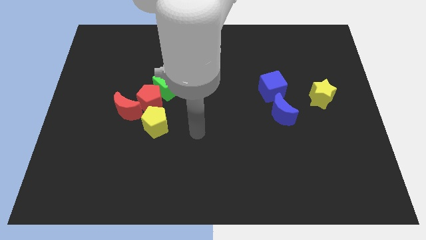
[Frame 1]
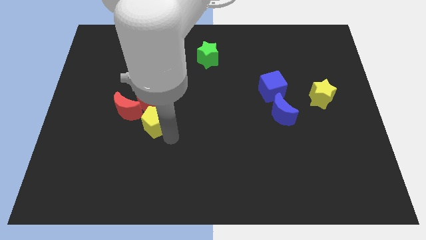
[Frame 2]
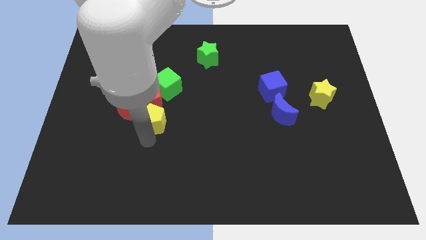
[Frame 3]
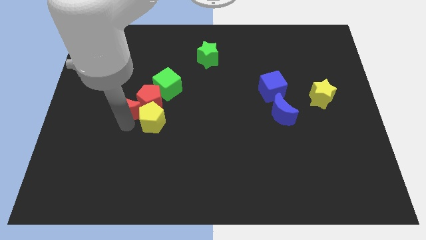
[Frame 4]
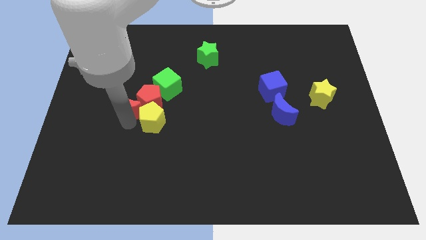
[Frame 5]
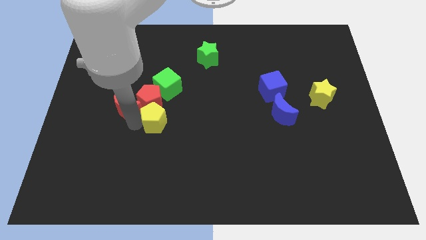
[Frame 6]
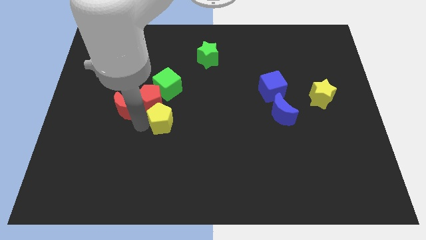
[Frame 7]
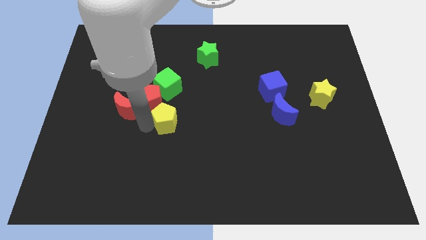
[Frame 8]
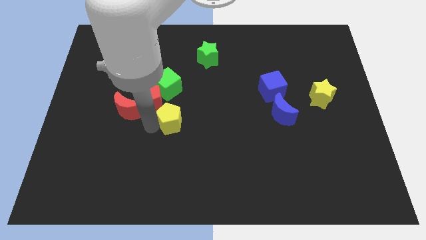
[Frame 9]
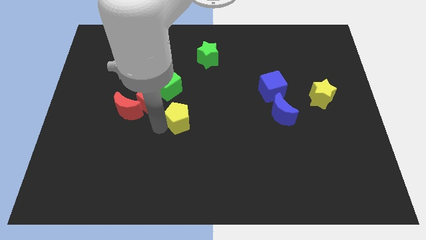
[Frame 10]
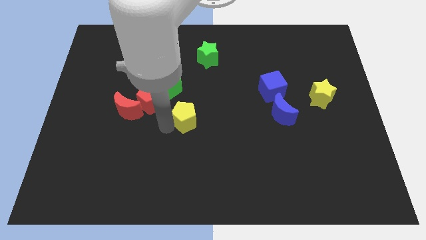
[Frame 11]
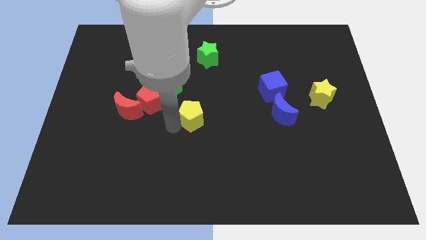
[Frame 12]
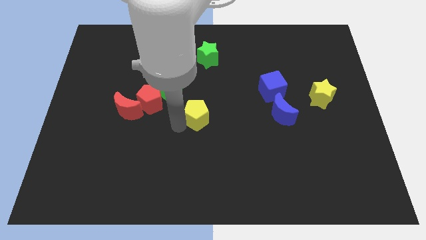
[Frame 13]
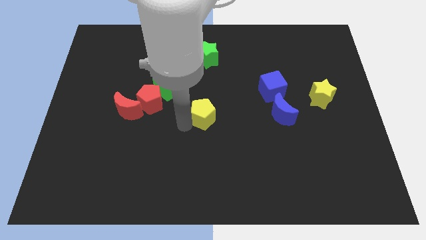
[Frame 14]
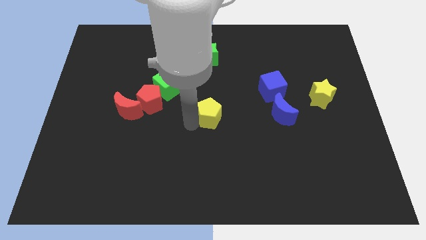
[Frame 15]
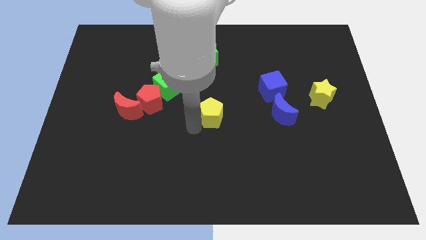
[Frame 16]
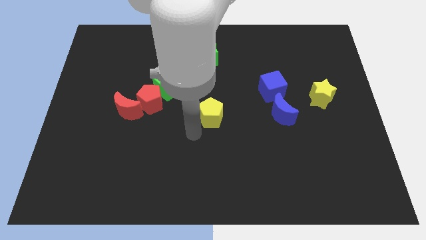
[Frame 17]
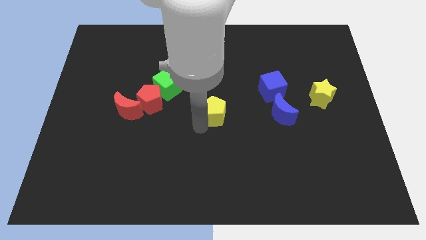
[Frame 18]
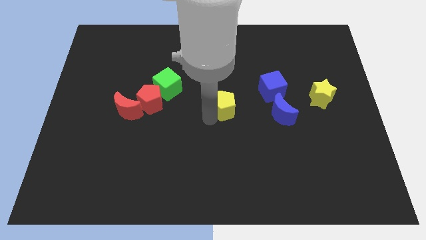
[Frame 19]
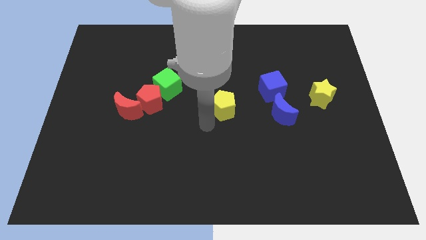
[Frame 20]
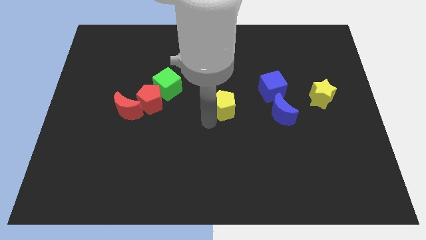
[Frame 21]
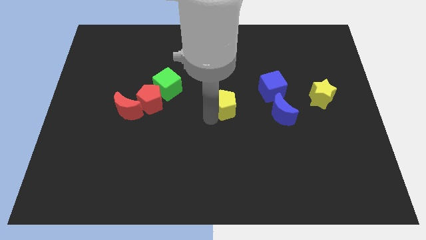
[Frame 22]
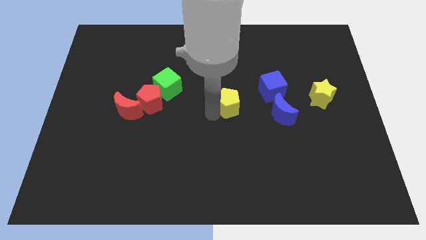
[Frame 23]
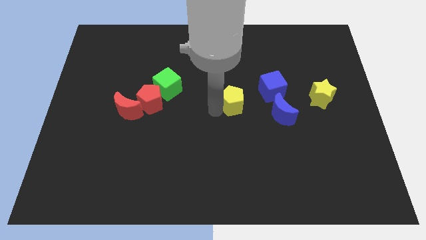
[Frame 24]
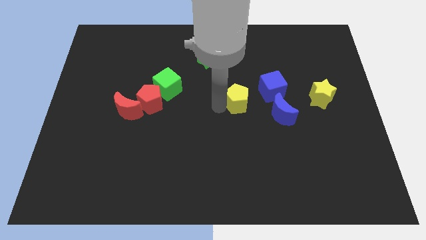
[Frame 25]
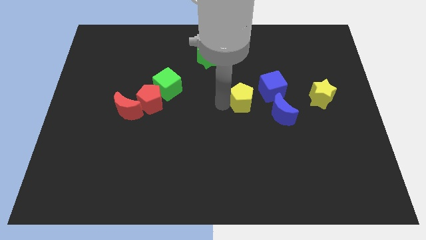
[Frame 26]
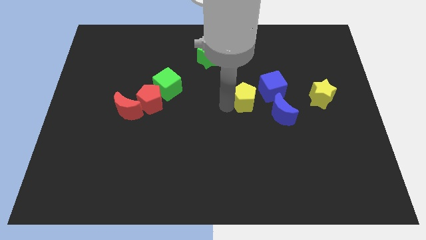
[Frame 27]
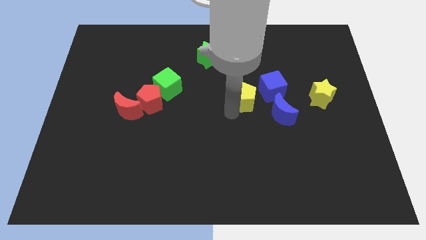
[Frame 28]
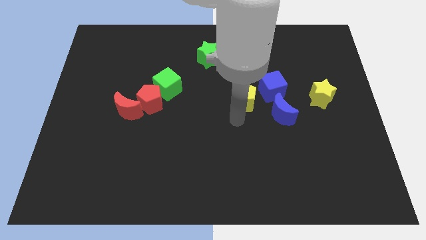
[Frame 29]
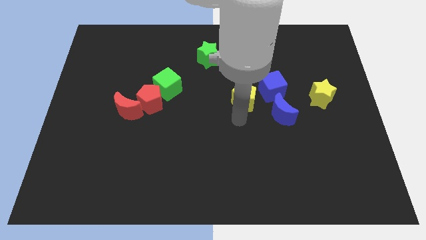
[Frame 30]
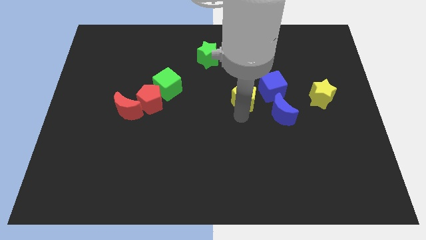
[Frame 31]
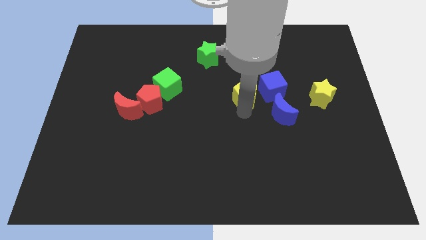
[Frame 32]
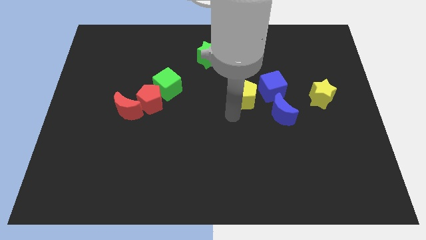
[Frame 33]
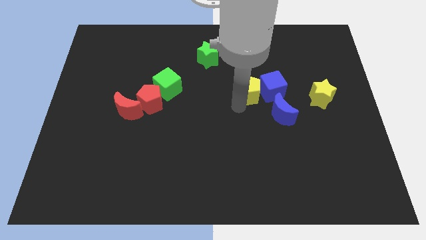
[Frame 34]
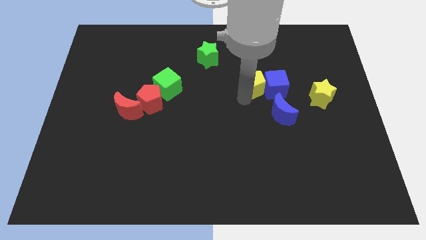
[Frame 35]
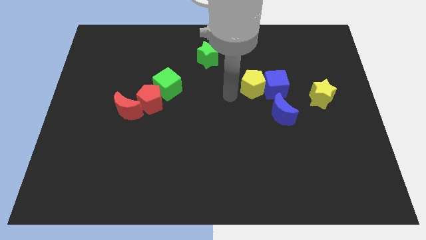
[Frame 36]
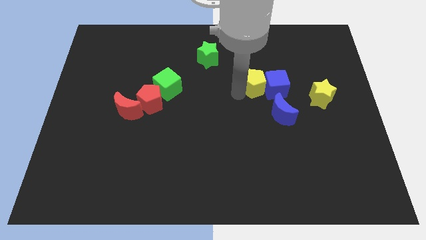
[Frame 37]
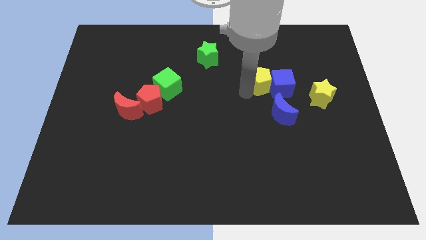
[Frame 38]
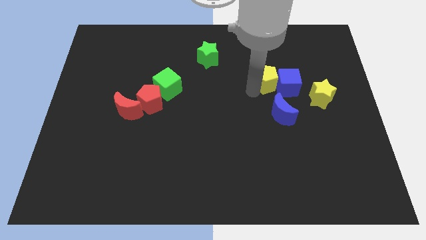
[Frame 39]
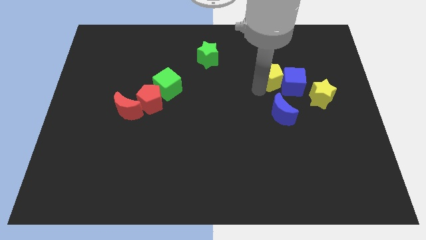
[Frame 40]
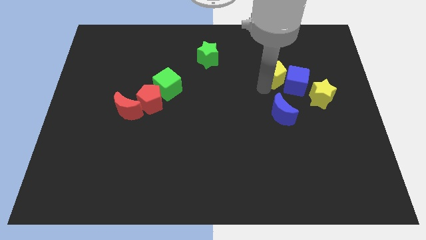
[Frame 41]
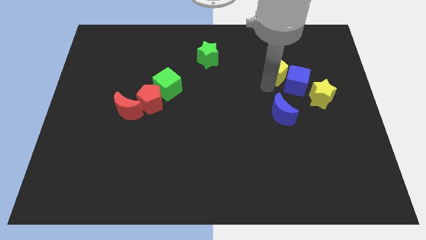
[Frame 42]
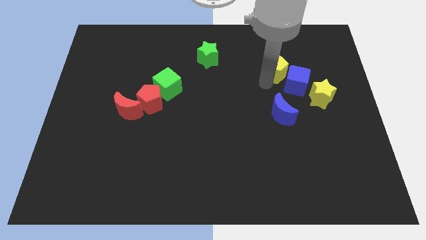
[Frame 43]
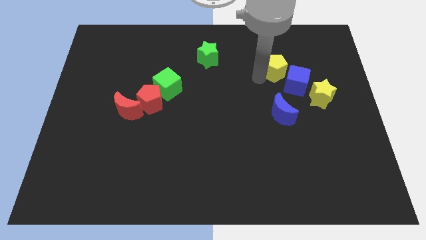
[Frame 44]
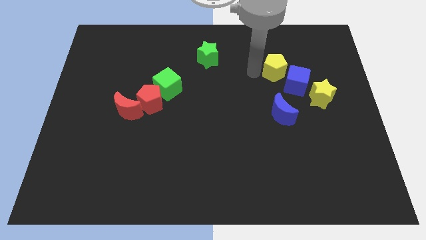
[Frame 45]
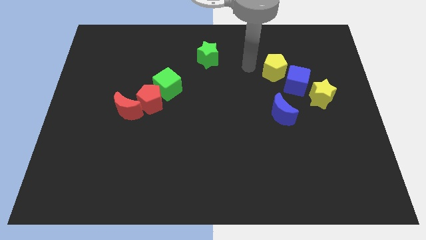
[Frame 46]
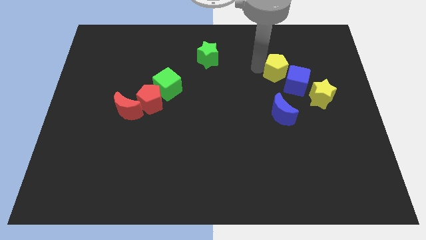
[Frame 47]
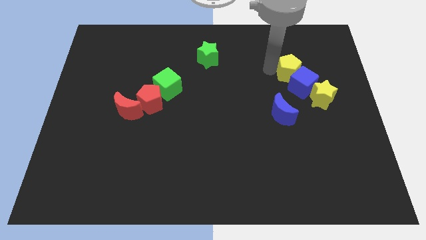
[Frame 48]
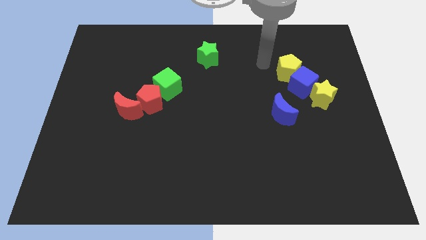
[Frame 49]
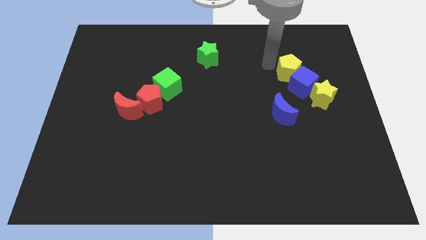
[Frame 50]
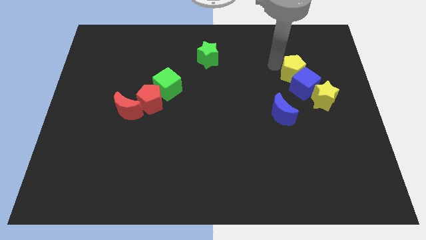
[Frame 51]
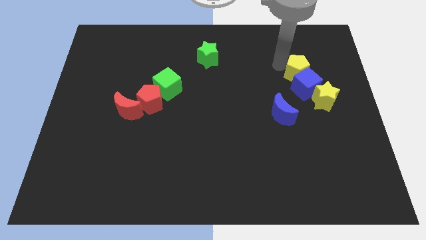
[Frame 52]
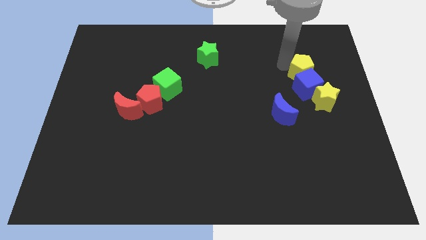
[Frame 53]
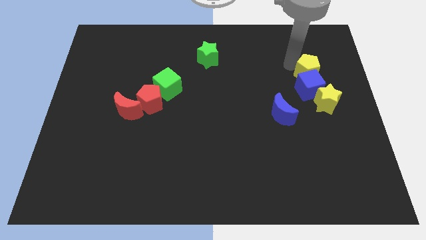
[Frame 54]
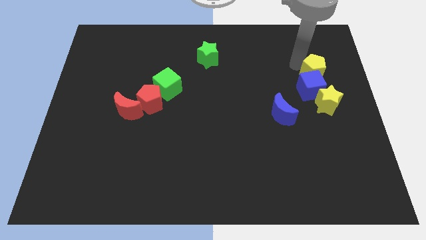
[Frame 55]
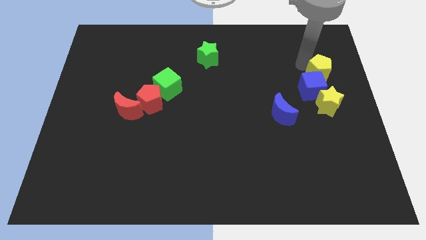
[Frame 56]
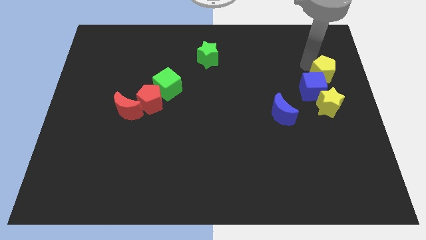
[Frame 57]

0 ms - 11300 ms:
slide the yellow pentagon to the center right

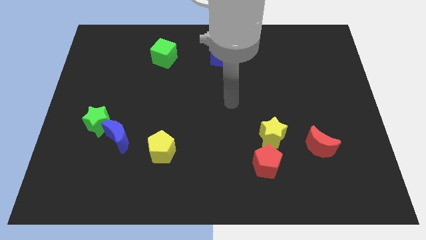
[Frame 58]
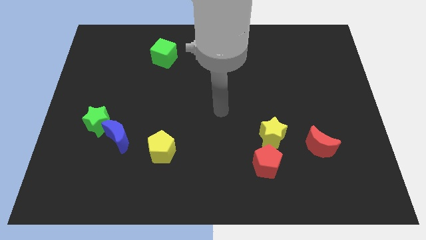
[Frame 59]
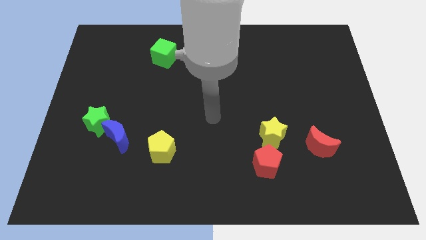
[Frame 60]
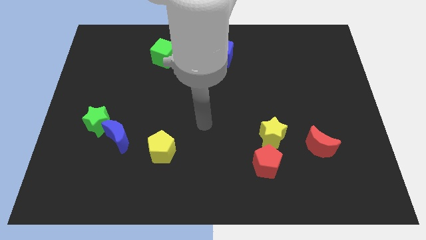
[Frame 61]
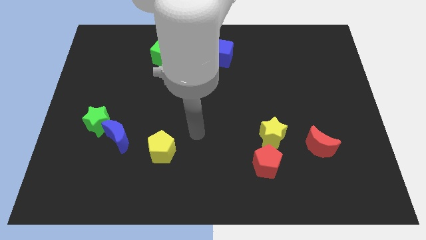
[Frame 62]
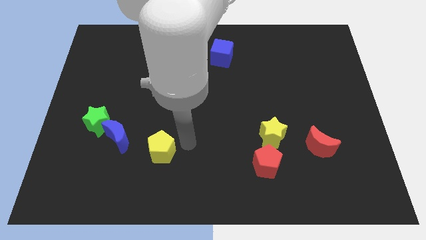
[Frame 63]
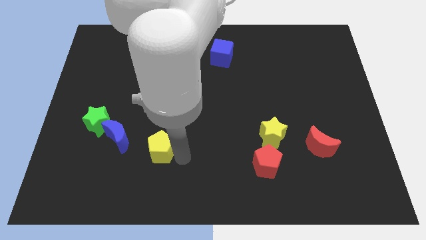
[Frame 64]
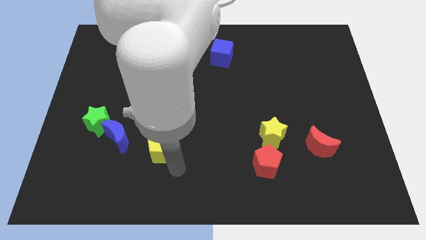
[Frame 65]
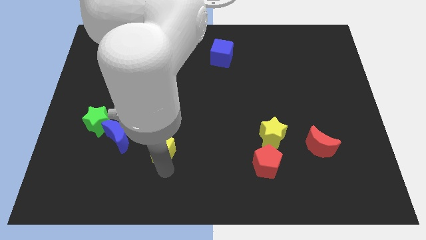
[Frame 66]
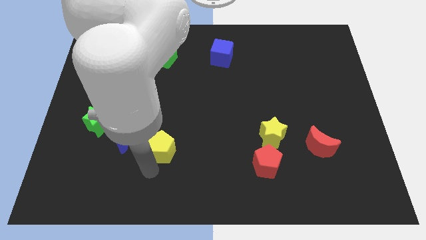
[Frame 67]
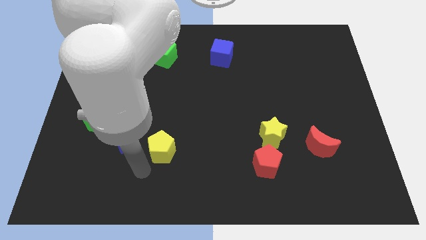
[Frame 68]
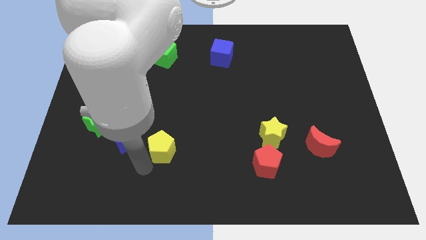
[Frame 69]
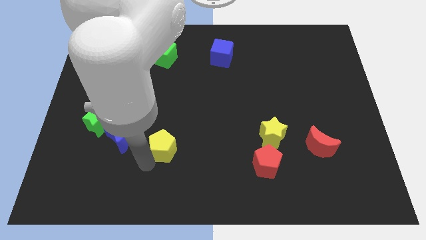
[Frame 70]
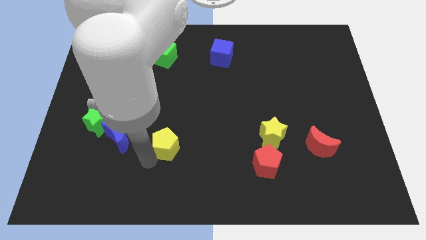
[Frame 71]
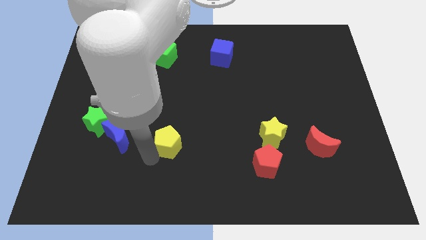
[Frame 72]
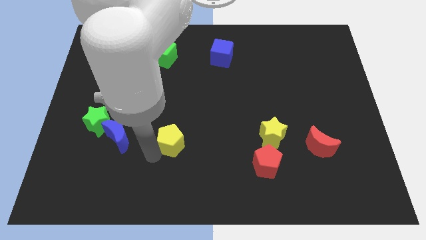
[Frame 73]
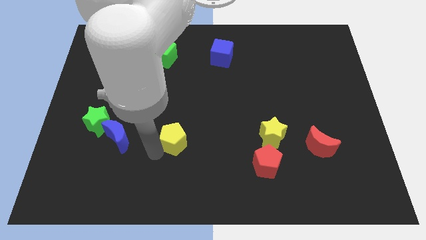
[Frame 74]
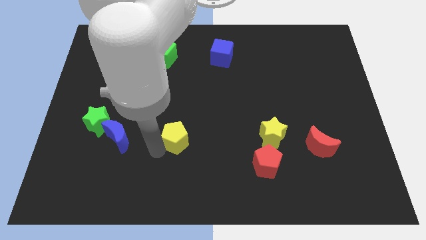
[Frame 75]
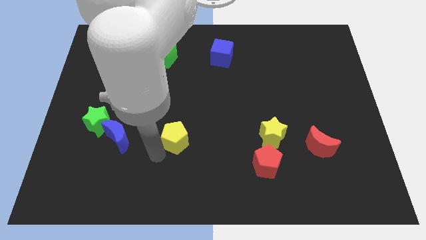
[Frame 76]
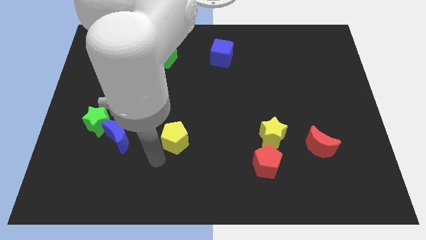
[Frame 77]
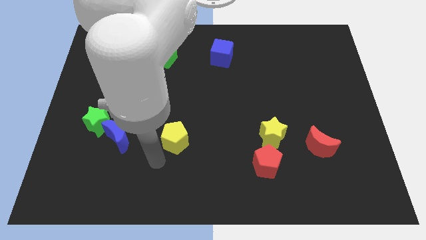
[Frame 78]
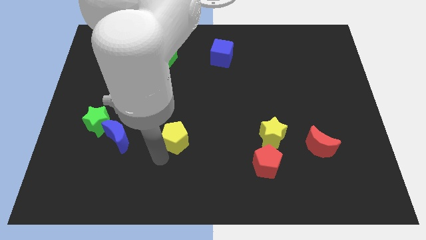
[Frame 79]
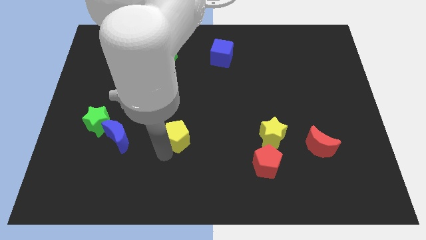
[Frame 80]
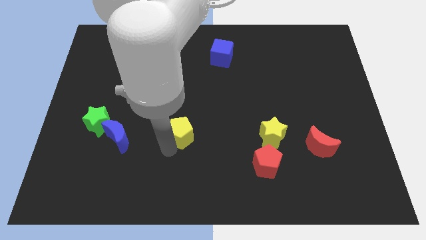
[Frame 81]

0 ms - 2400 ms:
push the yellow pentagon to the center of the board
